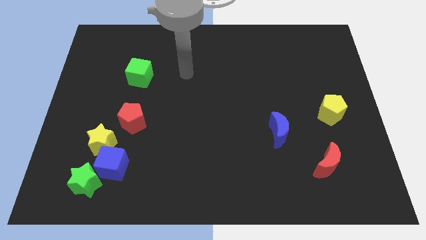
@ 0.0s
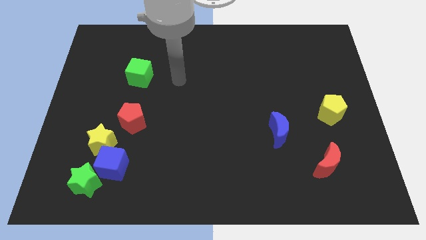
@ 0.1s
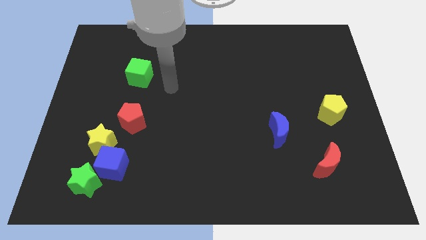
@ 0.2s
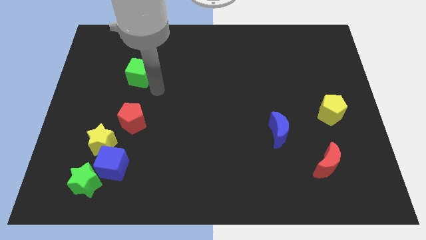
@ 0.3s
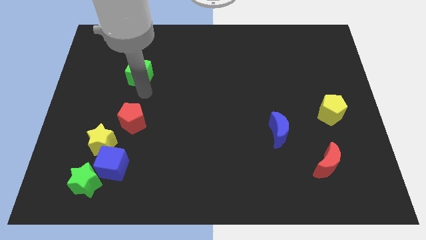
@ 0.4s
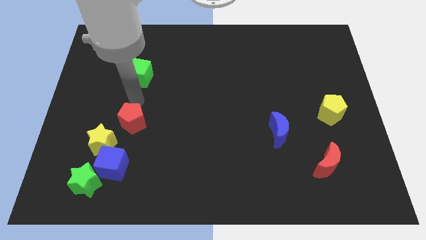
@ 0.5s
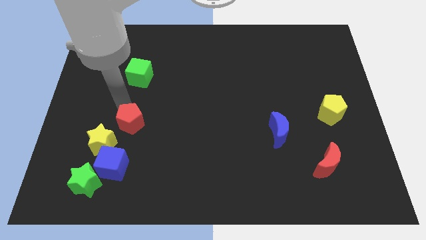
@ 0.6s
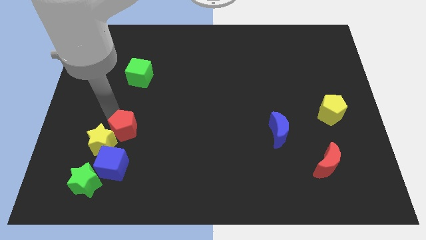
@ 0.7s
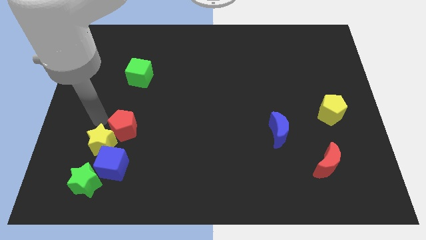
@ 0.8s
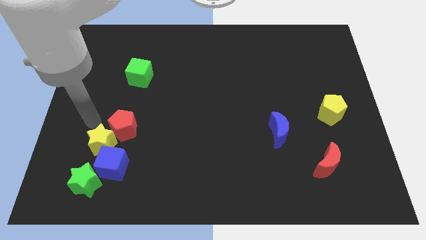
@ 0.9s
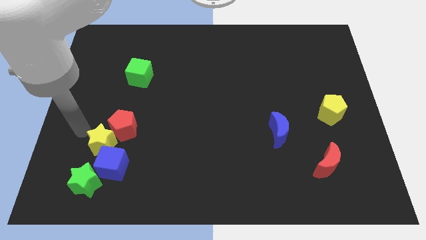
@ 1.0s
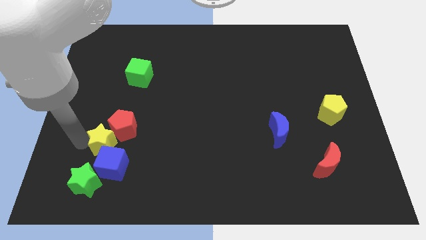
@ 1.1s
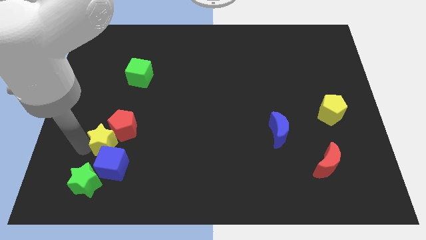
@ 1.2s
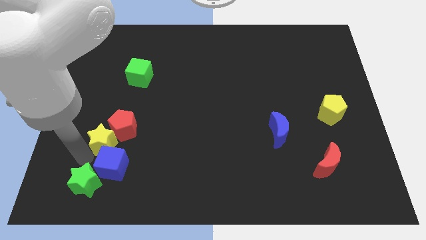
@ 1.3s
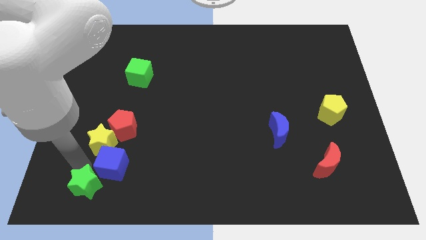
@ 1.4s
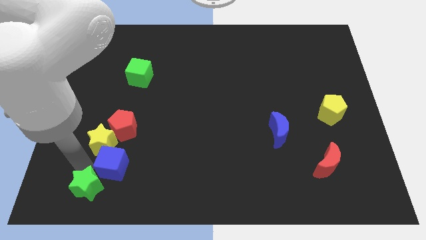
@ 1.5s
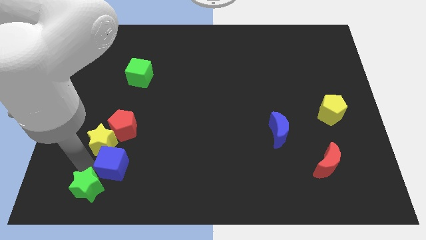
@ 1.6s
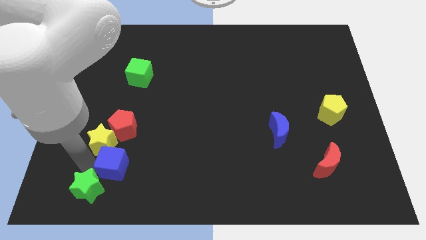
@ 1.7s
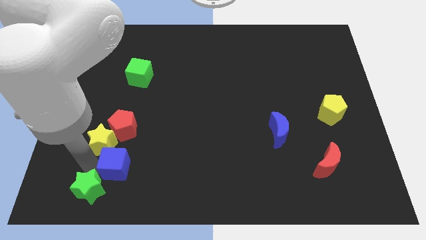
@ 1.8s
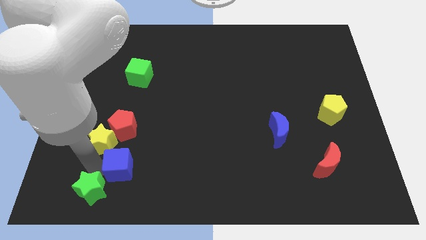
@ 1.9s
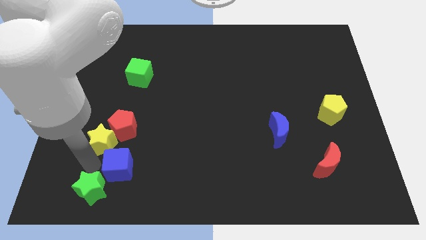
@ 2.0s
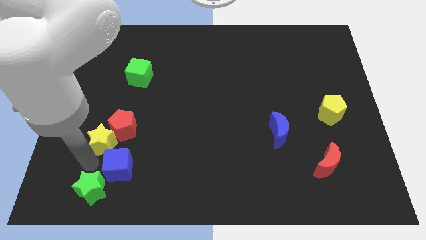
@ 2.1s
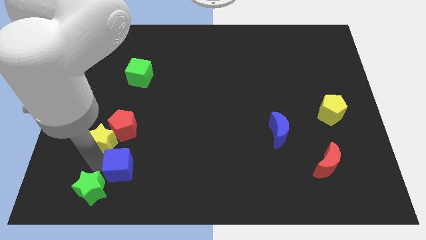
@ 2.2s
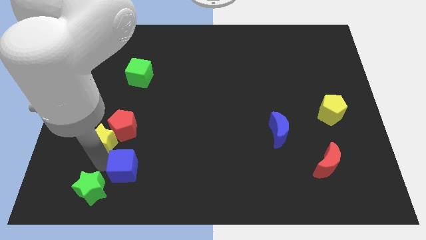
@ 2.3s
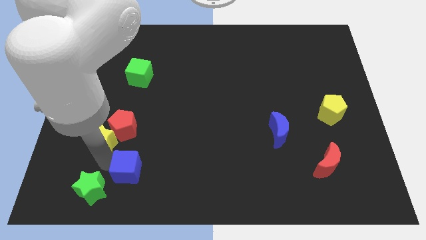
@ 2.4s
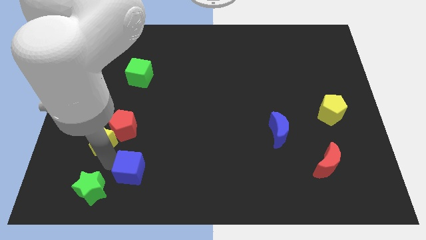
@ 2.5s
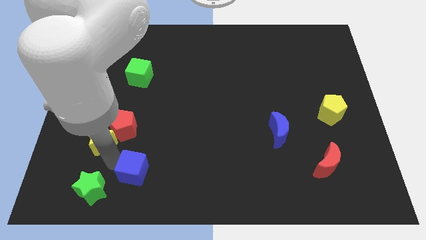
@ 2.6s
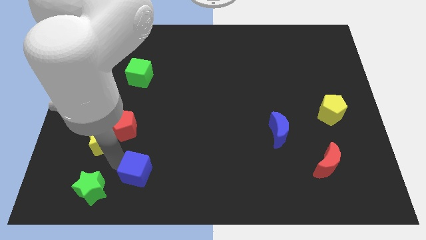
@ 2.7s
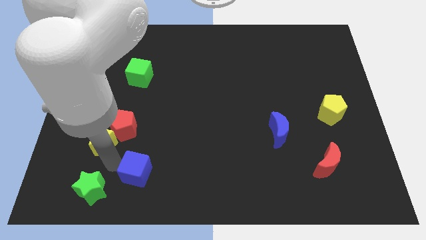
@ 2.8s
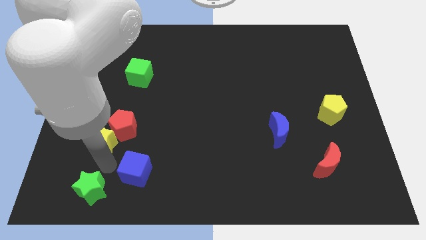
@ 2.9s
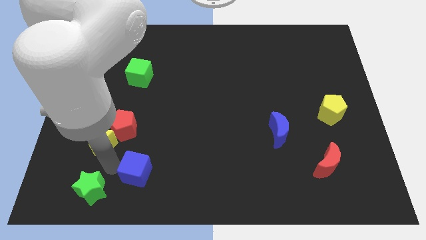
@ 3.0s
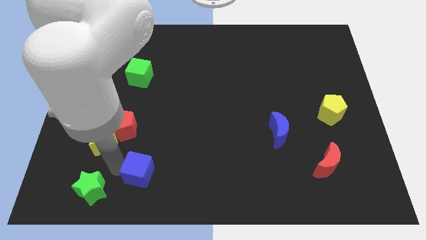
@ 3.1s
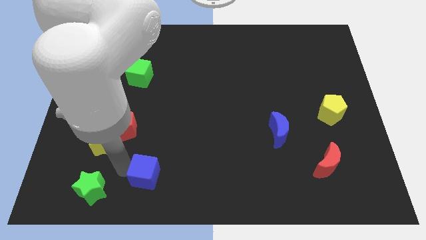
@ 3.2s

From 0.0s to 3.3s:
pull the blue cube apart from the green star and yellow star

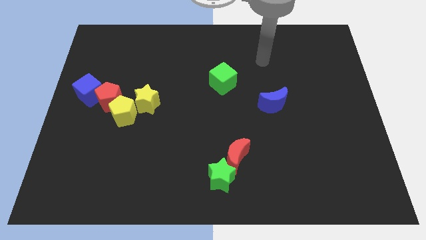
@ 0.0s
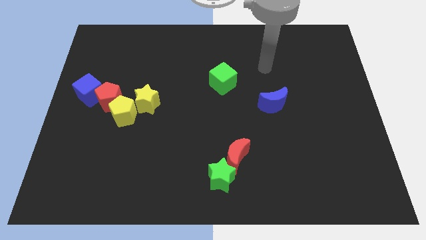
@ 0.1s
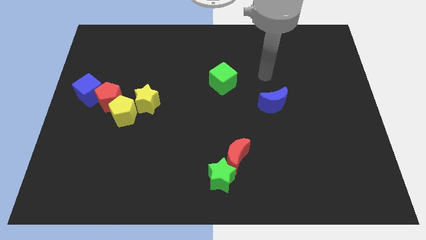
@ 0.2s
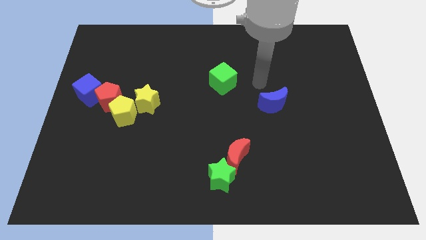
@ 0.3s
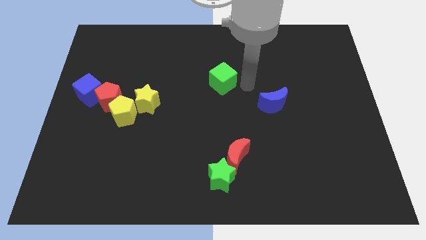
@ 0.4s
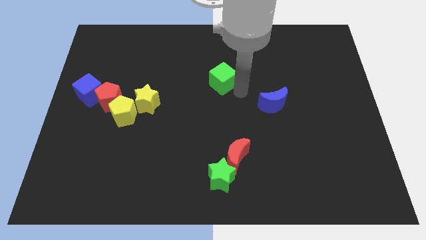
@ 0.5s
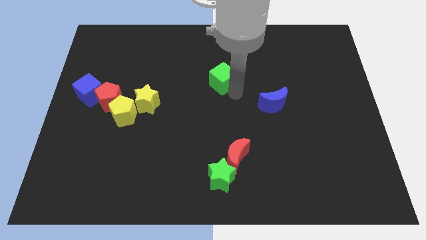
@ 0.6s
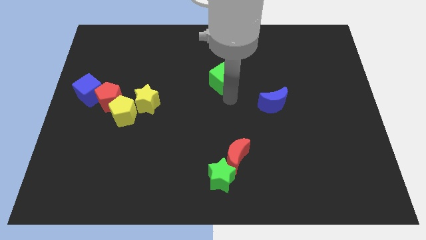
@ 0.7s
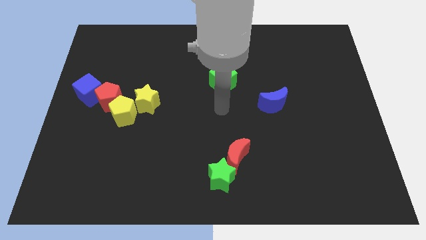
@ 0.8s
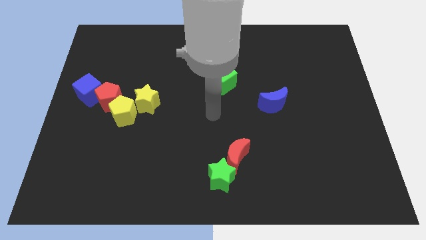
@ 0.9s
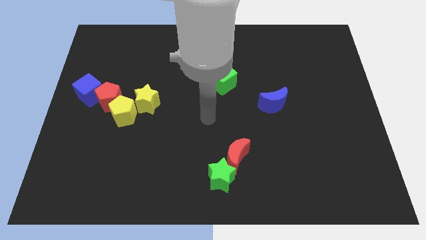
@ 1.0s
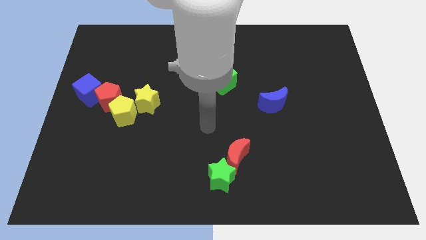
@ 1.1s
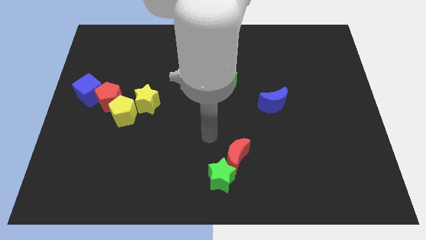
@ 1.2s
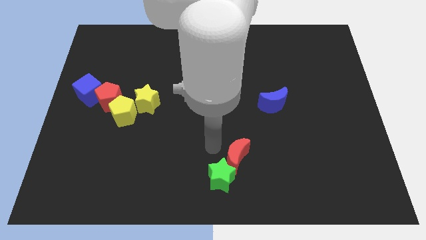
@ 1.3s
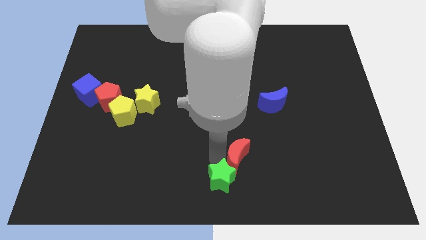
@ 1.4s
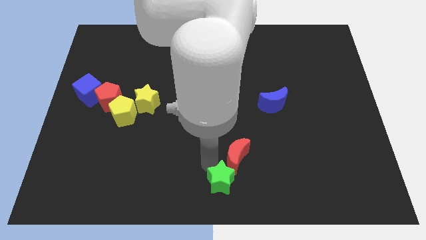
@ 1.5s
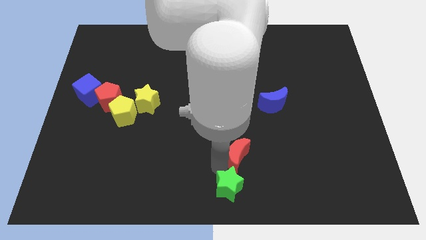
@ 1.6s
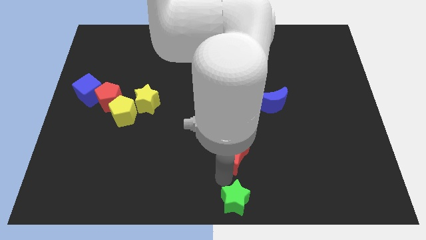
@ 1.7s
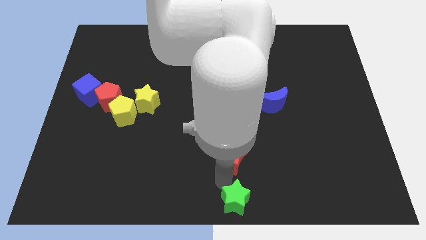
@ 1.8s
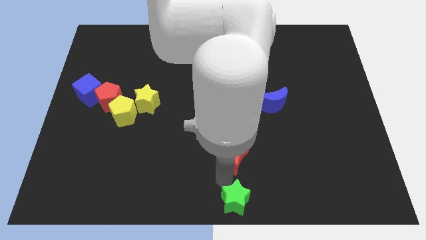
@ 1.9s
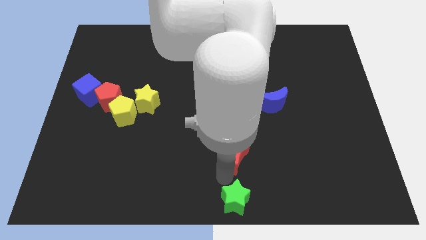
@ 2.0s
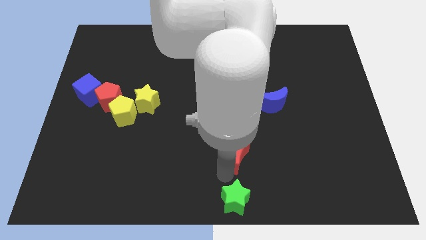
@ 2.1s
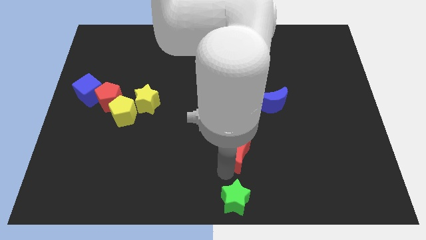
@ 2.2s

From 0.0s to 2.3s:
move the red moon away from the green star

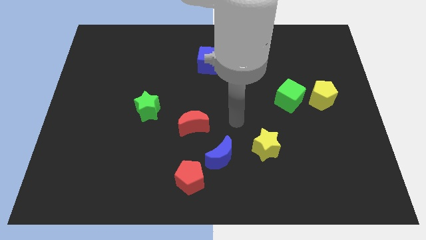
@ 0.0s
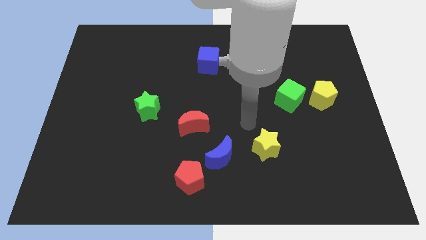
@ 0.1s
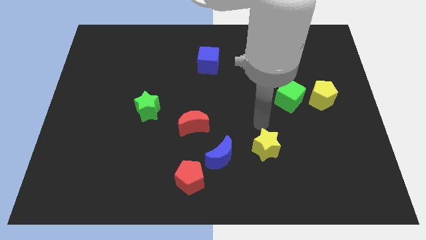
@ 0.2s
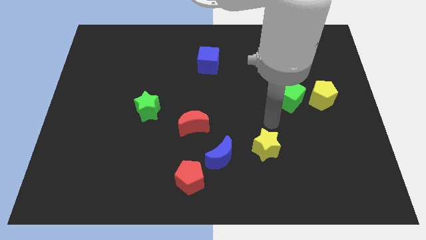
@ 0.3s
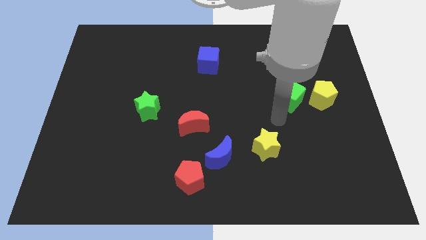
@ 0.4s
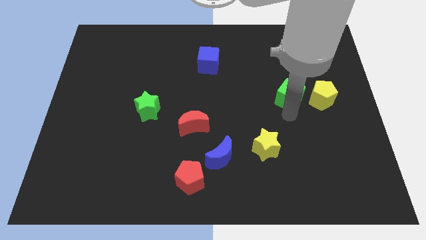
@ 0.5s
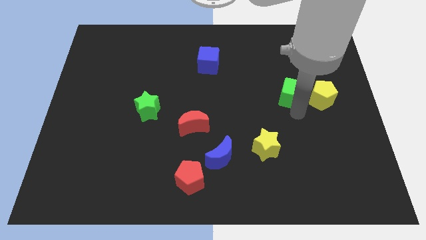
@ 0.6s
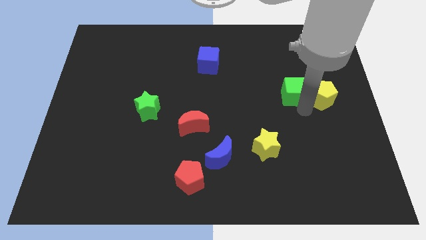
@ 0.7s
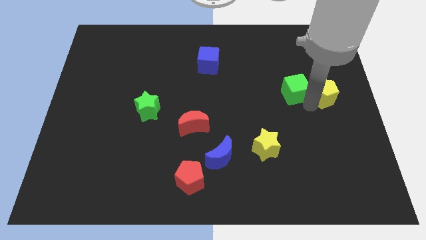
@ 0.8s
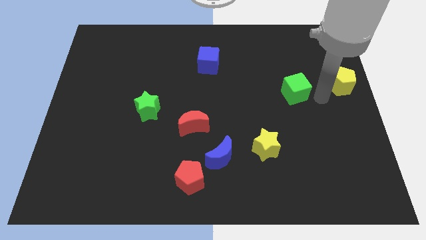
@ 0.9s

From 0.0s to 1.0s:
separate the green cube from the yellow pentagon

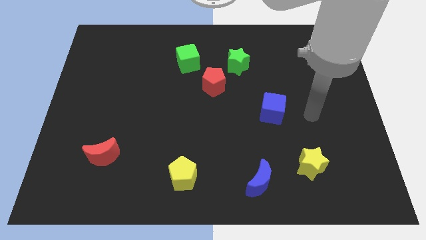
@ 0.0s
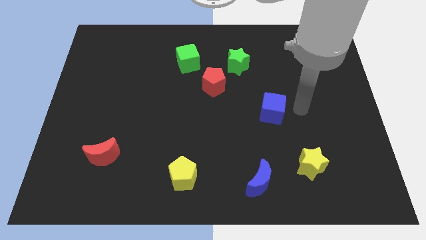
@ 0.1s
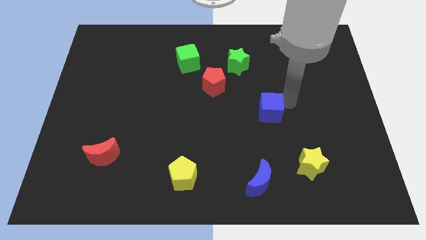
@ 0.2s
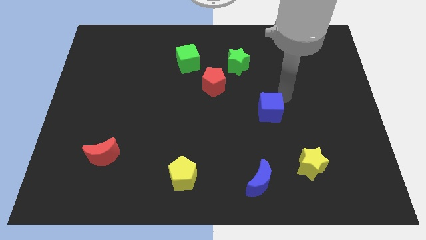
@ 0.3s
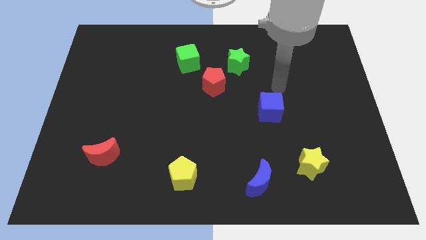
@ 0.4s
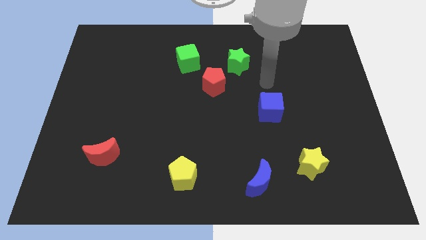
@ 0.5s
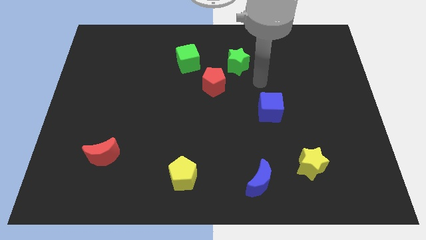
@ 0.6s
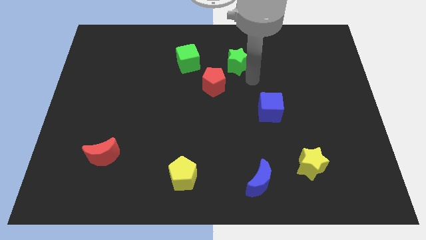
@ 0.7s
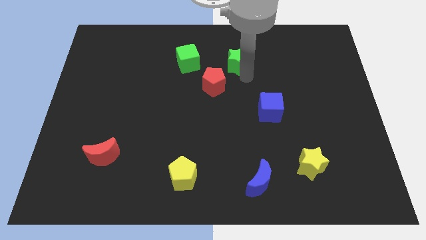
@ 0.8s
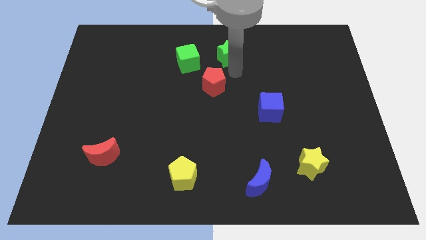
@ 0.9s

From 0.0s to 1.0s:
pull the red pentagon apart from the green star

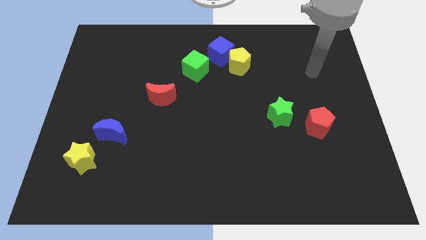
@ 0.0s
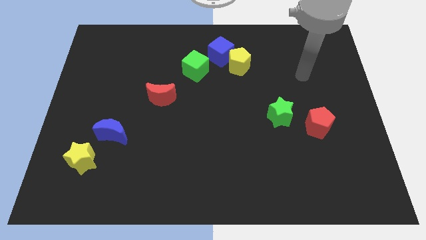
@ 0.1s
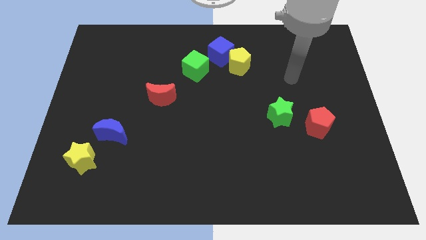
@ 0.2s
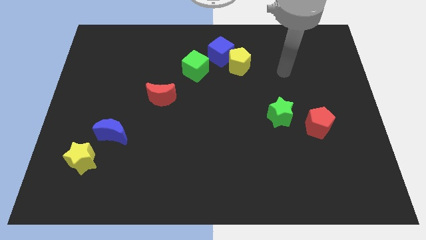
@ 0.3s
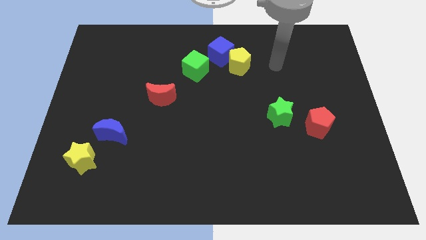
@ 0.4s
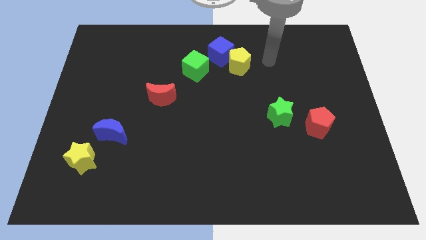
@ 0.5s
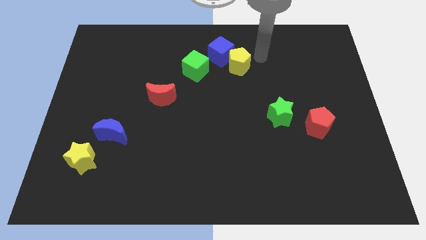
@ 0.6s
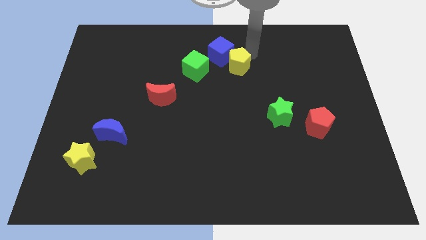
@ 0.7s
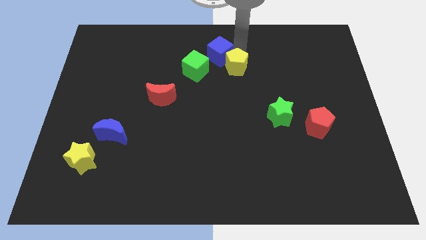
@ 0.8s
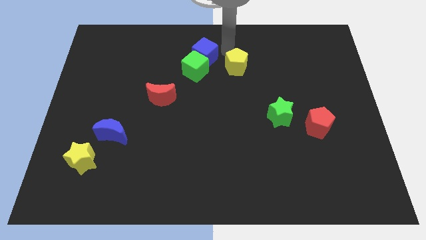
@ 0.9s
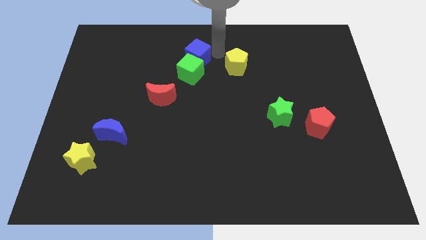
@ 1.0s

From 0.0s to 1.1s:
separate the yellow pentagon from the blue cube

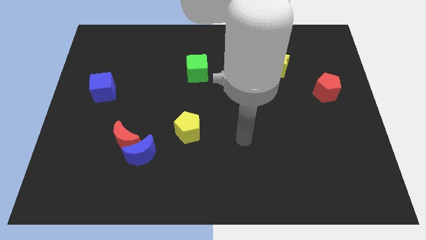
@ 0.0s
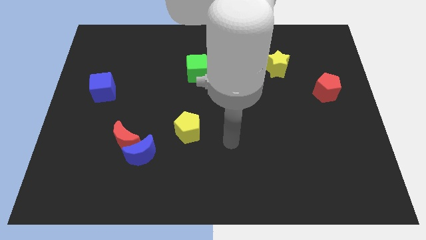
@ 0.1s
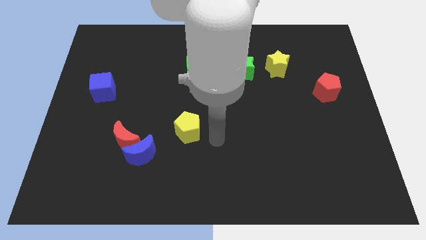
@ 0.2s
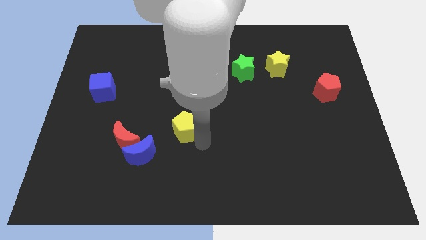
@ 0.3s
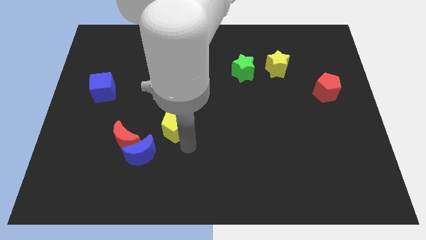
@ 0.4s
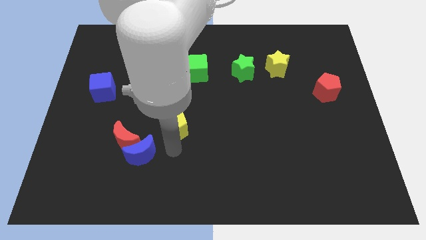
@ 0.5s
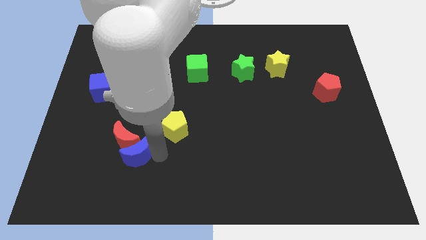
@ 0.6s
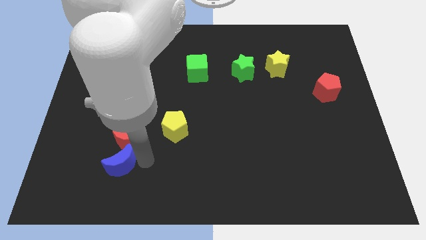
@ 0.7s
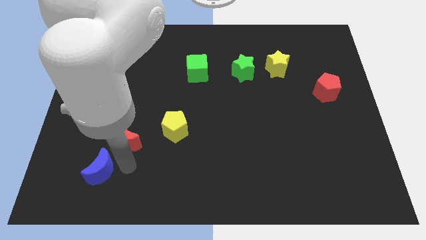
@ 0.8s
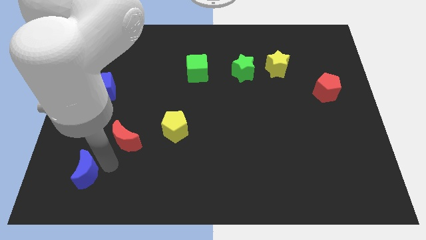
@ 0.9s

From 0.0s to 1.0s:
separate the red moon from the blue moon
